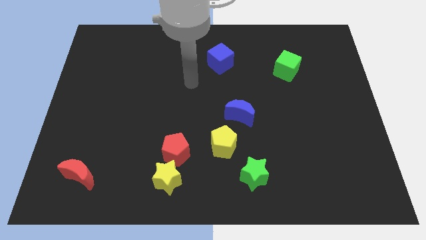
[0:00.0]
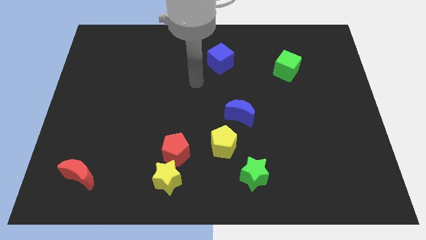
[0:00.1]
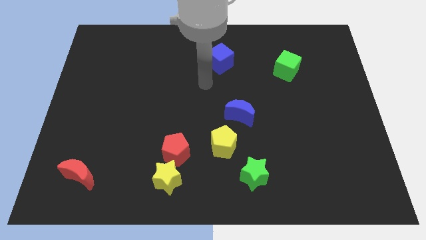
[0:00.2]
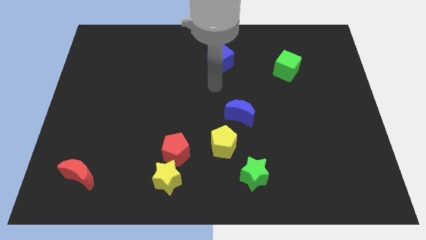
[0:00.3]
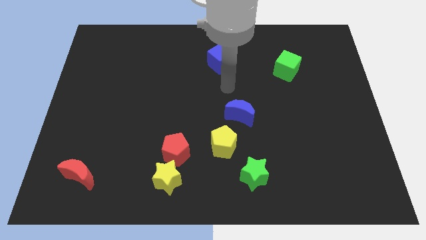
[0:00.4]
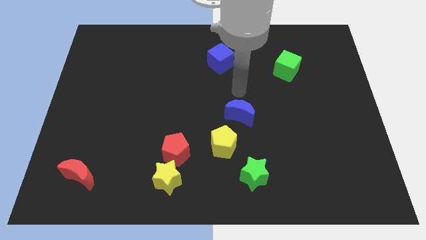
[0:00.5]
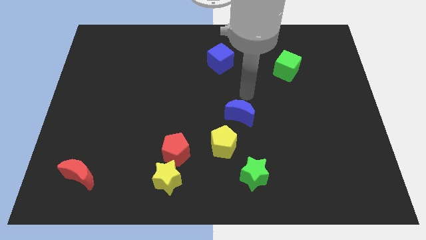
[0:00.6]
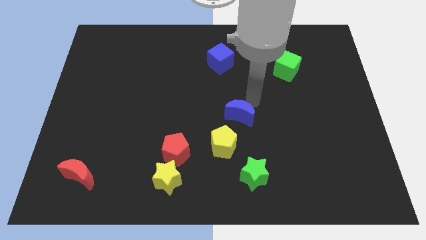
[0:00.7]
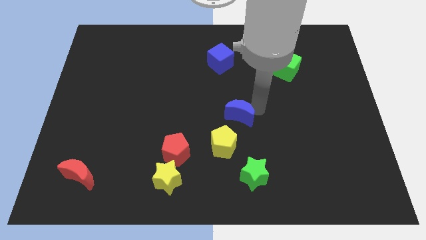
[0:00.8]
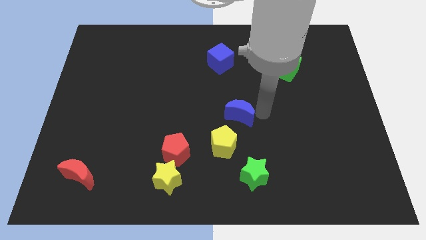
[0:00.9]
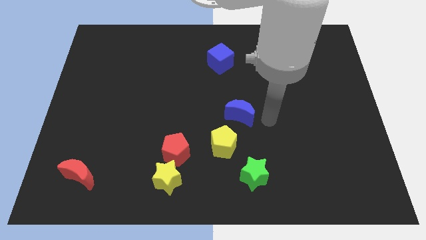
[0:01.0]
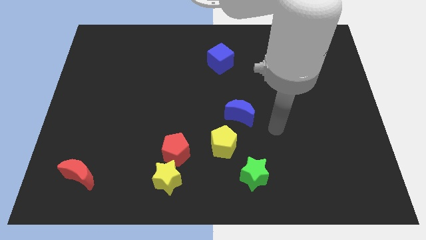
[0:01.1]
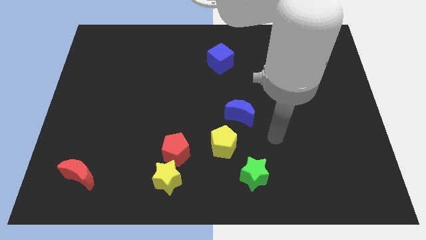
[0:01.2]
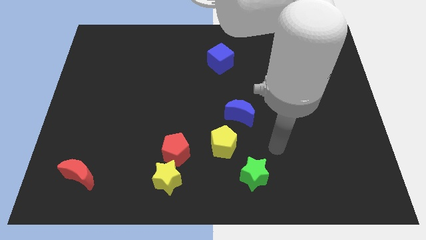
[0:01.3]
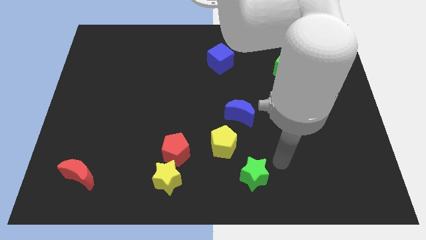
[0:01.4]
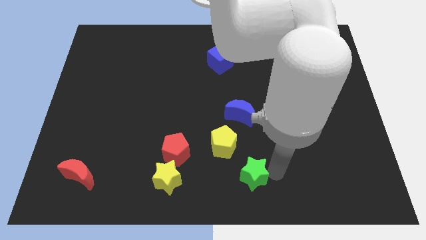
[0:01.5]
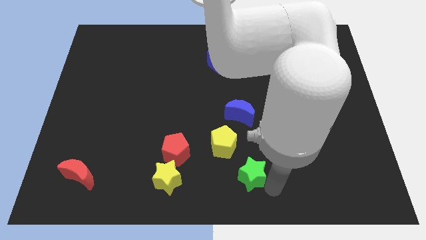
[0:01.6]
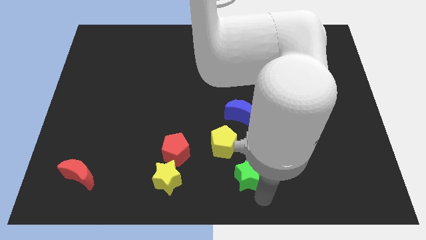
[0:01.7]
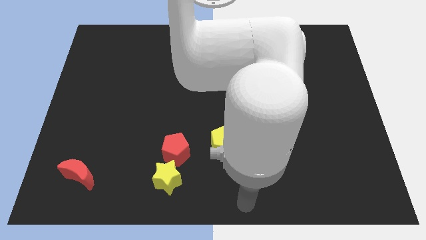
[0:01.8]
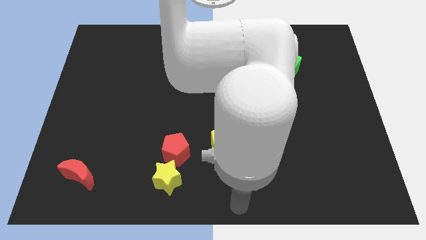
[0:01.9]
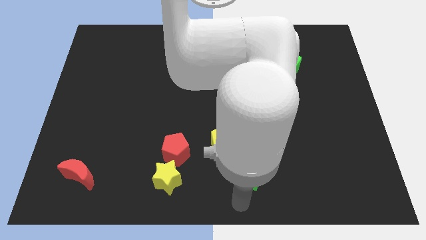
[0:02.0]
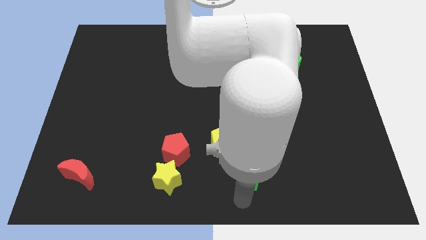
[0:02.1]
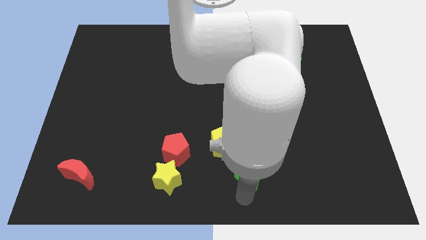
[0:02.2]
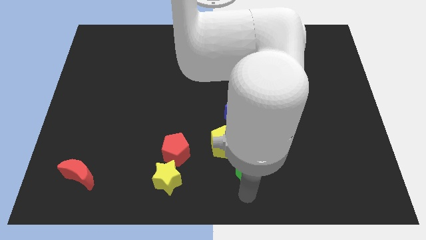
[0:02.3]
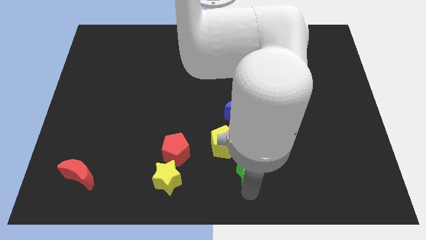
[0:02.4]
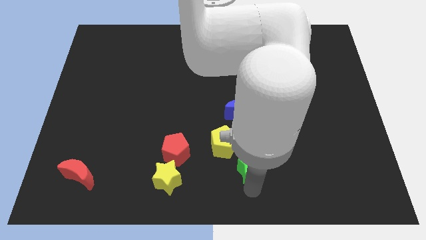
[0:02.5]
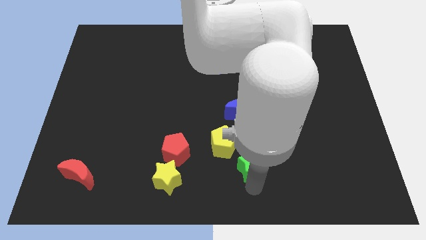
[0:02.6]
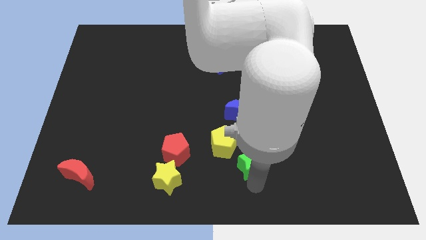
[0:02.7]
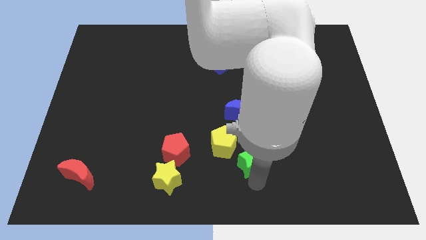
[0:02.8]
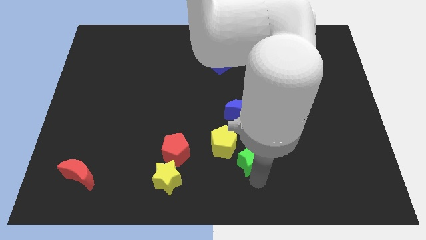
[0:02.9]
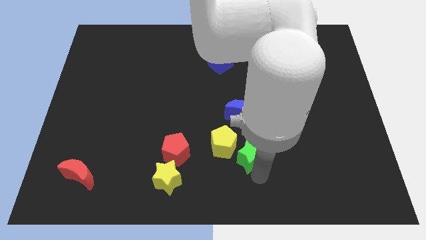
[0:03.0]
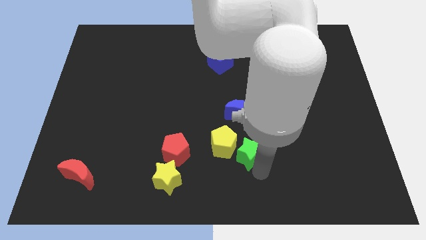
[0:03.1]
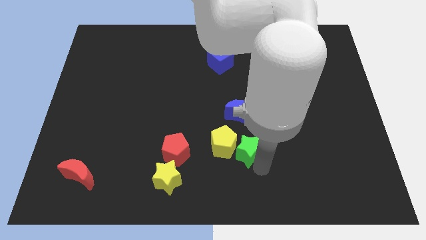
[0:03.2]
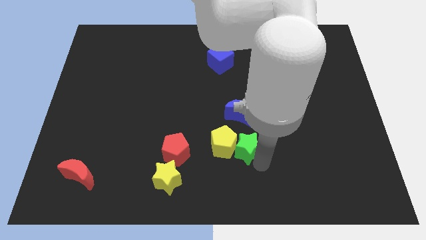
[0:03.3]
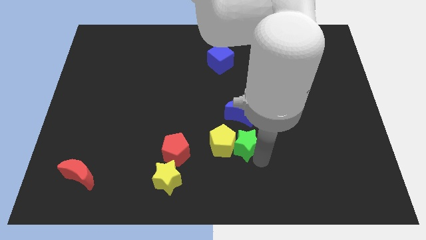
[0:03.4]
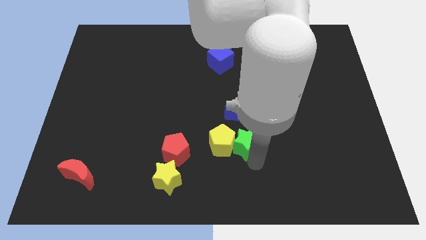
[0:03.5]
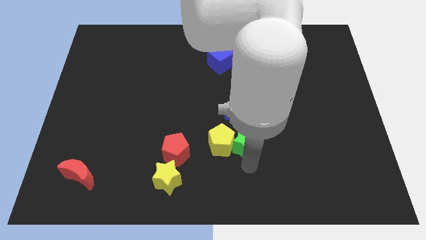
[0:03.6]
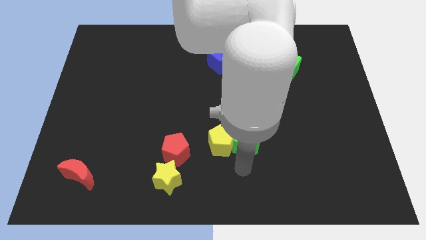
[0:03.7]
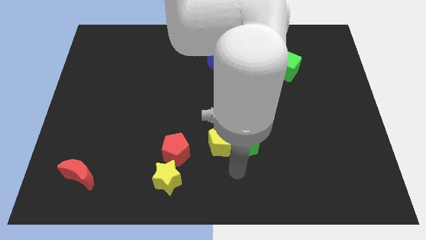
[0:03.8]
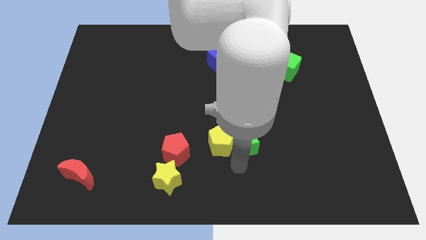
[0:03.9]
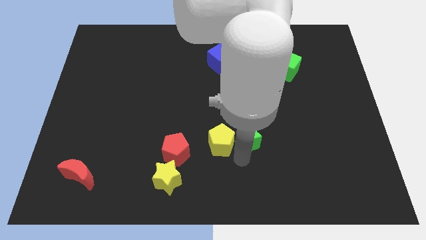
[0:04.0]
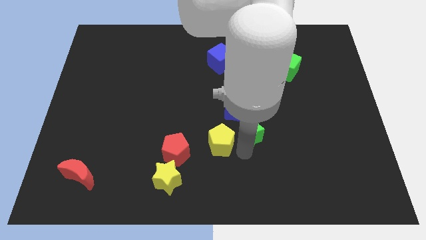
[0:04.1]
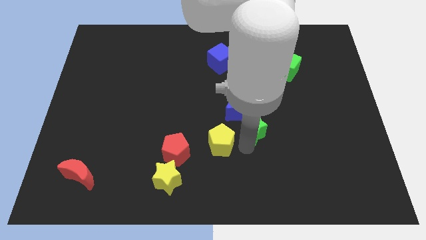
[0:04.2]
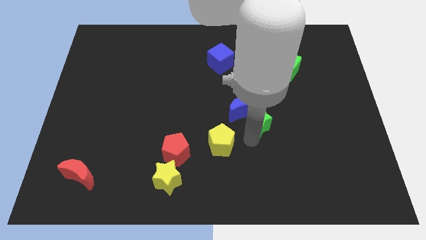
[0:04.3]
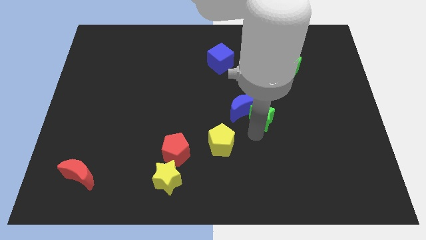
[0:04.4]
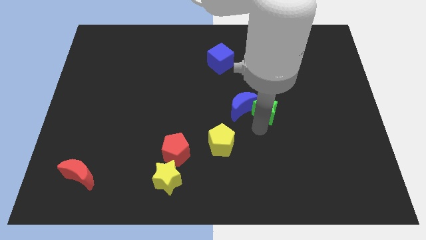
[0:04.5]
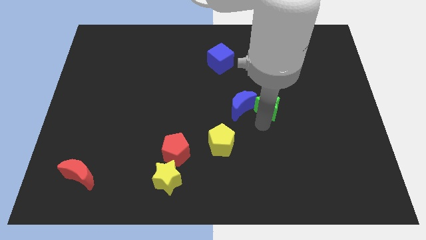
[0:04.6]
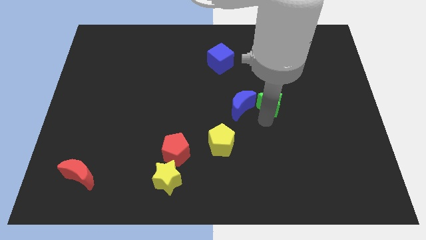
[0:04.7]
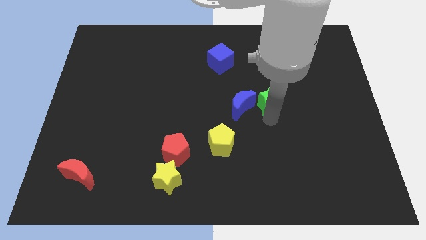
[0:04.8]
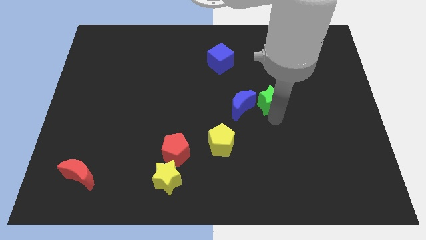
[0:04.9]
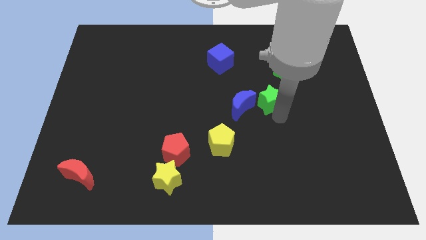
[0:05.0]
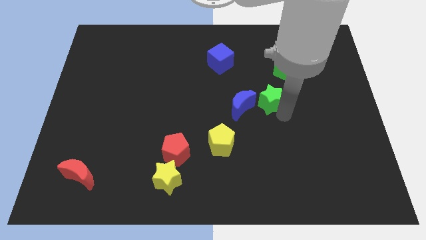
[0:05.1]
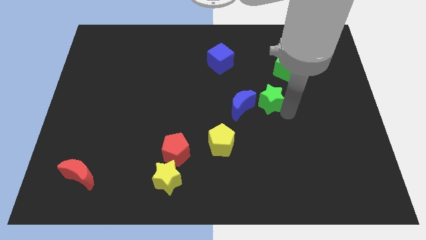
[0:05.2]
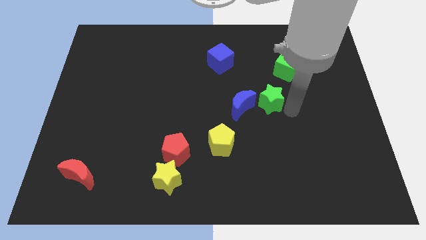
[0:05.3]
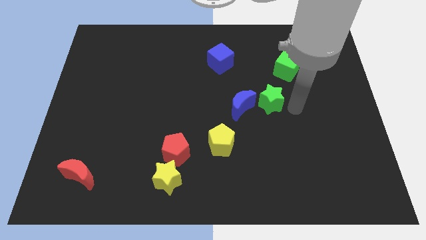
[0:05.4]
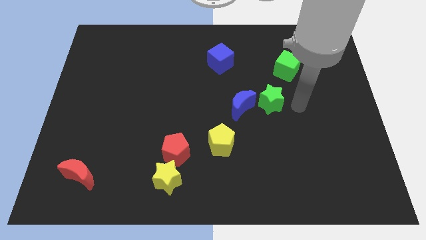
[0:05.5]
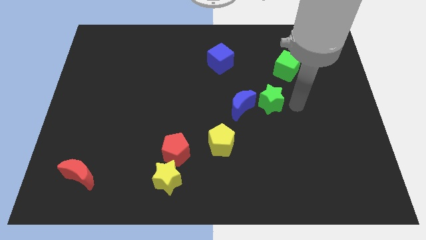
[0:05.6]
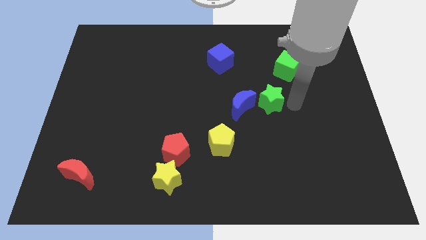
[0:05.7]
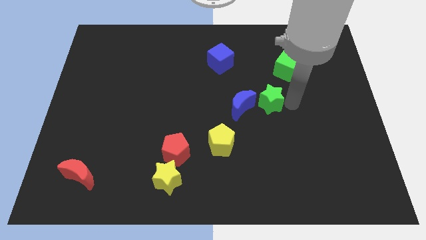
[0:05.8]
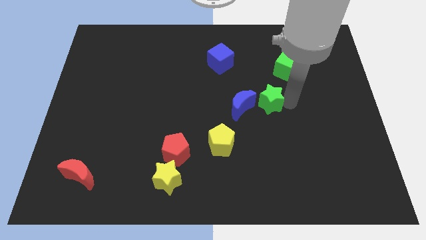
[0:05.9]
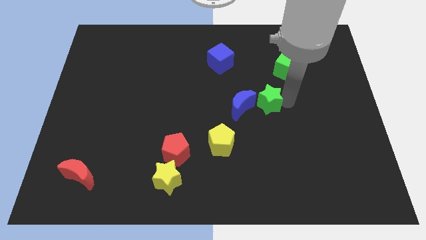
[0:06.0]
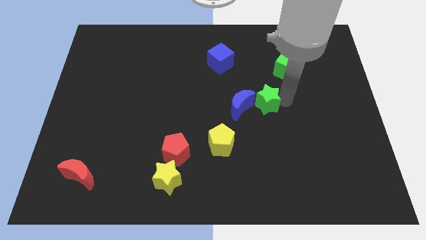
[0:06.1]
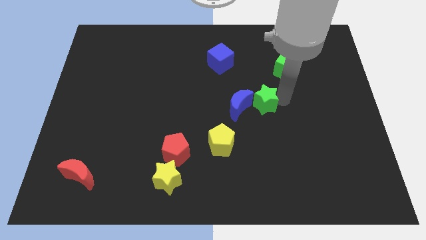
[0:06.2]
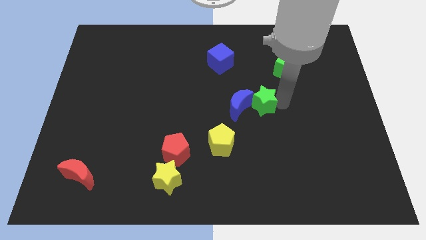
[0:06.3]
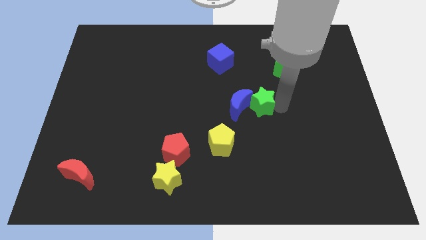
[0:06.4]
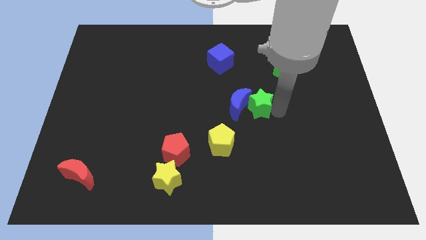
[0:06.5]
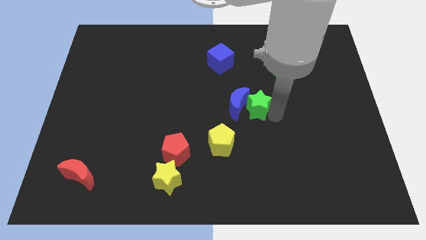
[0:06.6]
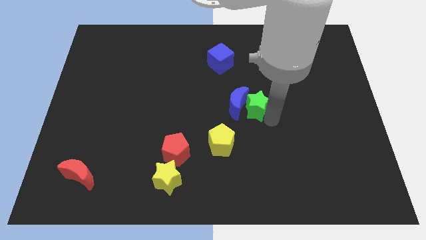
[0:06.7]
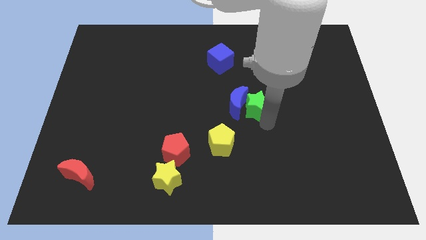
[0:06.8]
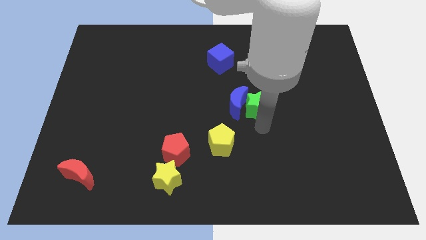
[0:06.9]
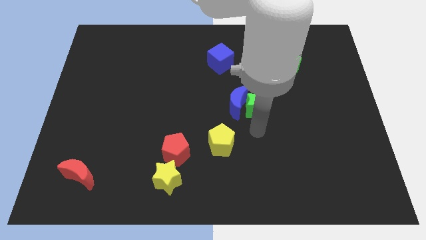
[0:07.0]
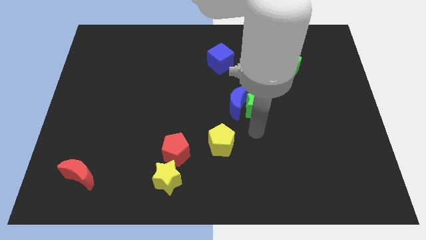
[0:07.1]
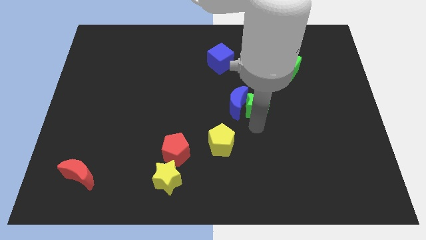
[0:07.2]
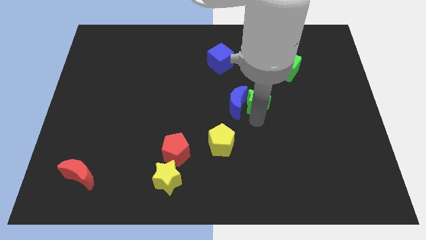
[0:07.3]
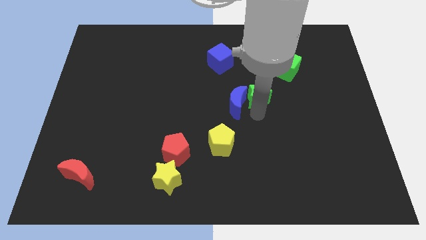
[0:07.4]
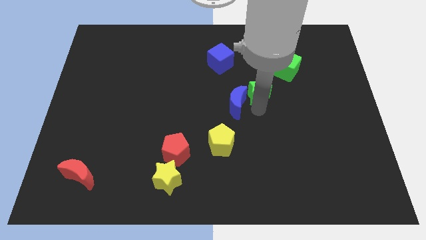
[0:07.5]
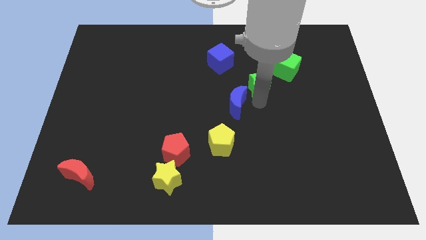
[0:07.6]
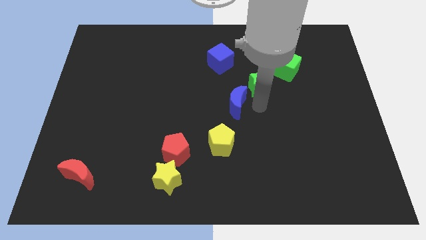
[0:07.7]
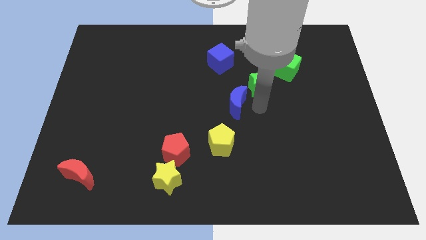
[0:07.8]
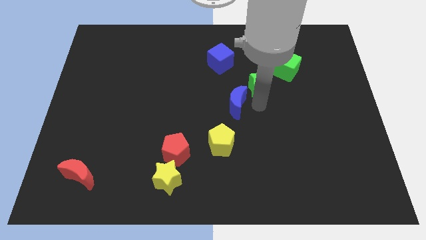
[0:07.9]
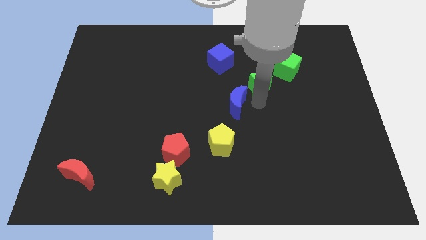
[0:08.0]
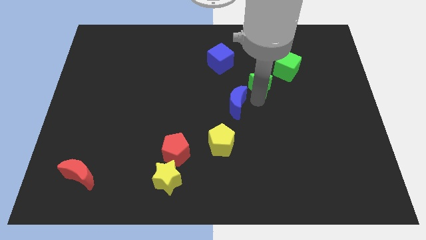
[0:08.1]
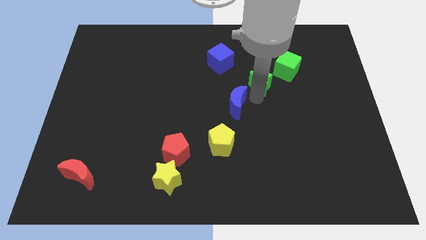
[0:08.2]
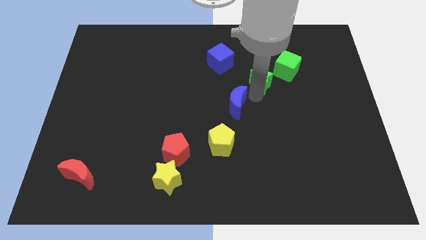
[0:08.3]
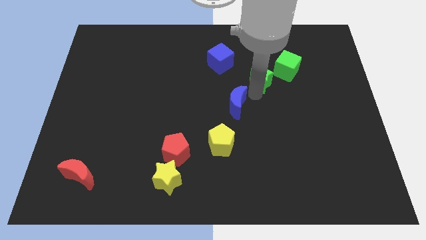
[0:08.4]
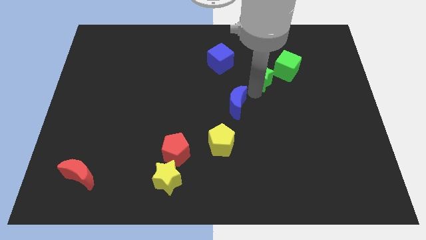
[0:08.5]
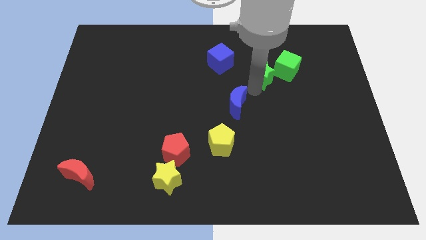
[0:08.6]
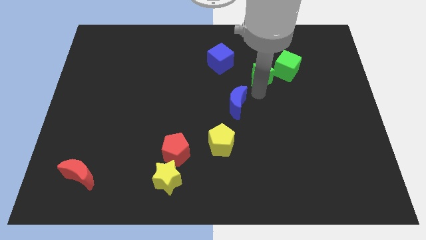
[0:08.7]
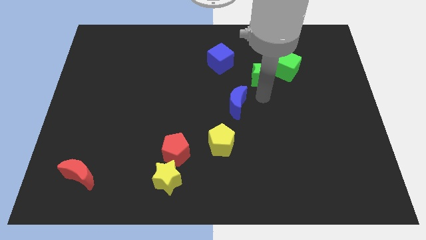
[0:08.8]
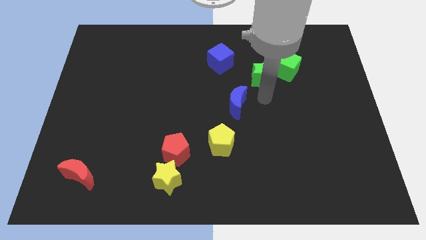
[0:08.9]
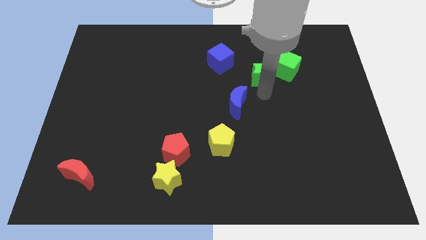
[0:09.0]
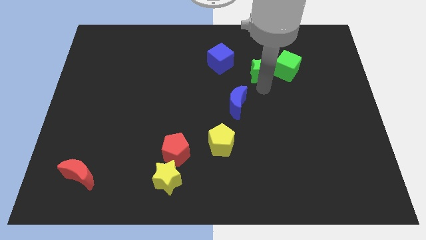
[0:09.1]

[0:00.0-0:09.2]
put the green star right of the blue cube
